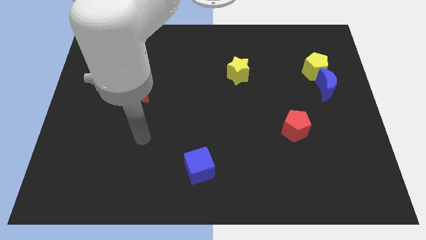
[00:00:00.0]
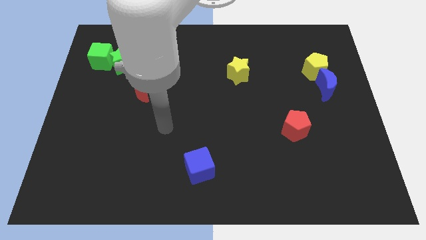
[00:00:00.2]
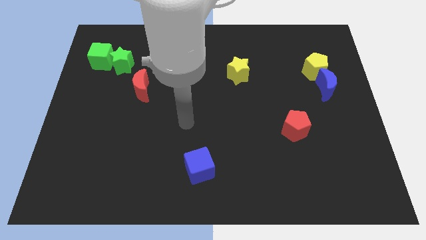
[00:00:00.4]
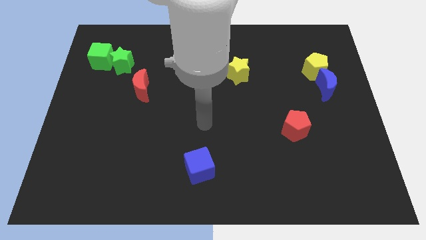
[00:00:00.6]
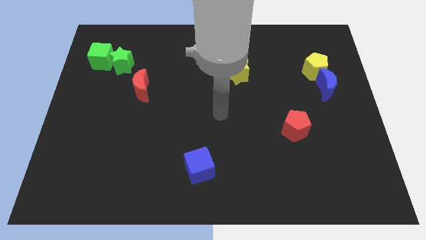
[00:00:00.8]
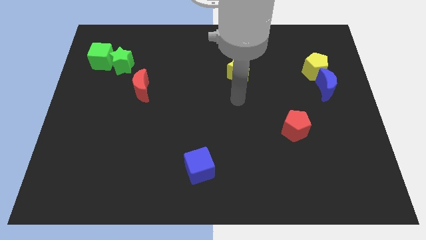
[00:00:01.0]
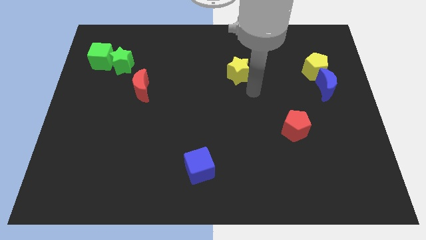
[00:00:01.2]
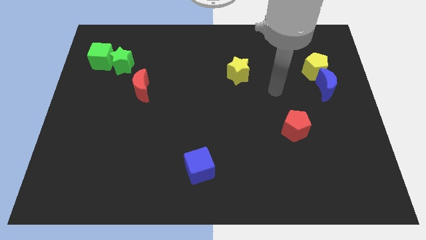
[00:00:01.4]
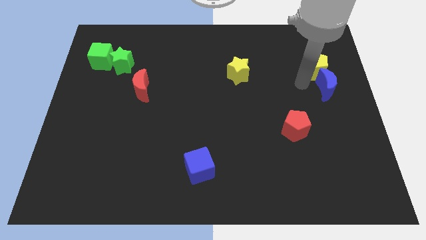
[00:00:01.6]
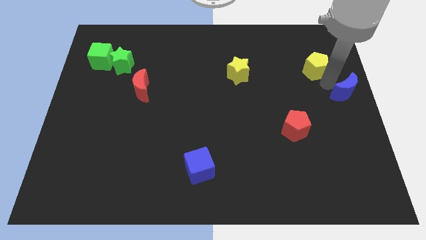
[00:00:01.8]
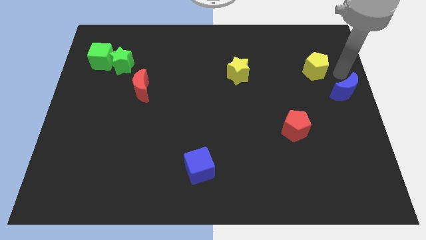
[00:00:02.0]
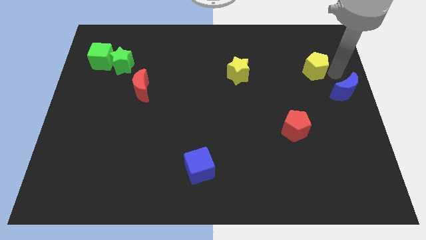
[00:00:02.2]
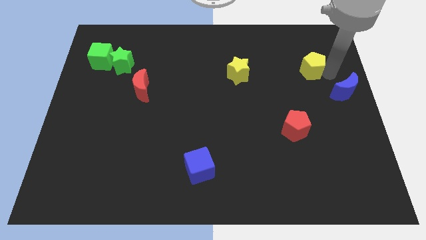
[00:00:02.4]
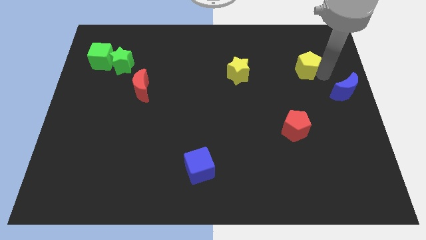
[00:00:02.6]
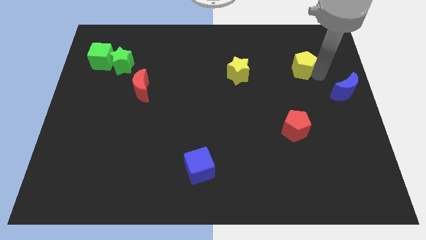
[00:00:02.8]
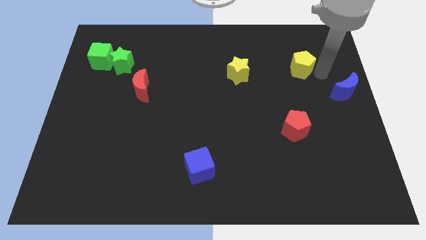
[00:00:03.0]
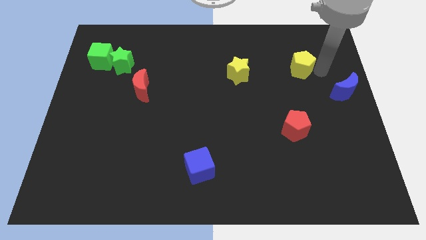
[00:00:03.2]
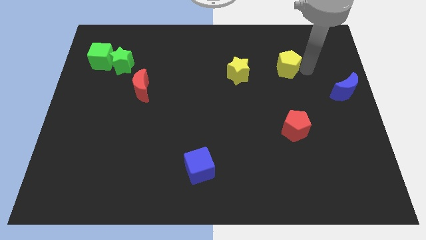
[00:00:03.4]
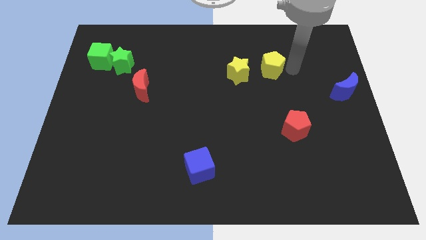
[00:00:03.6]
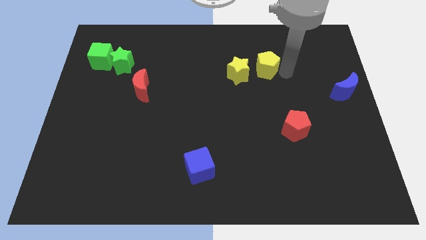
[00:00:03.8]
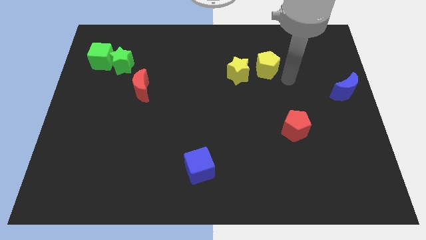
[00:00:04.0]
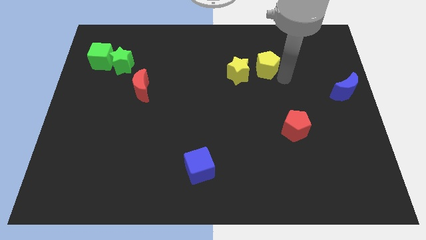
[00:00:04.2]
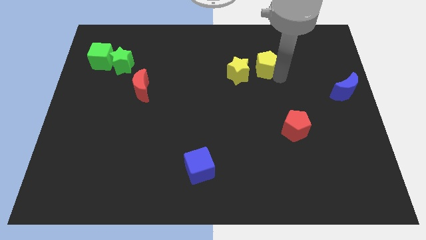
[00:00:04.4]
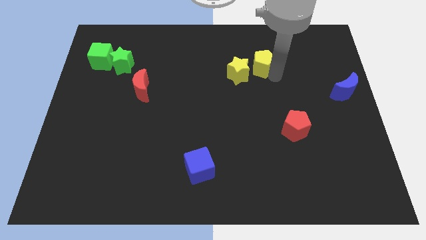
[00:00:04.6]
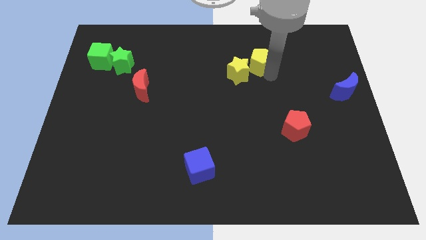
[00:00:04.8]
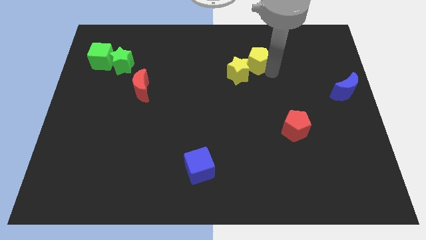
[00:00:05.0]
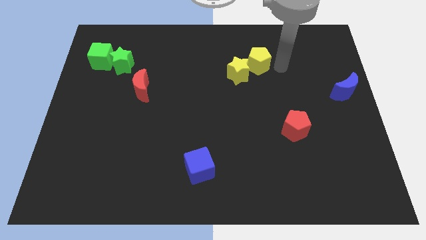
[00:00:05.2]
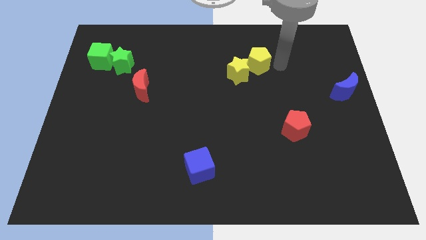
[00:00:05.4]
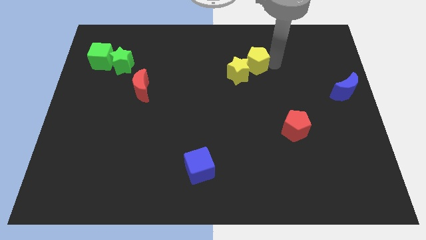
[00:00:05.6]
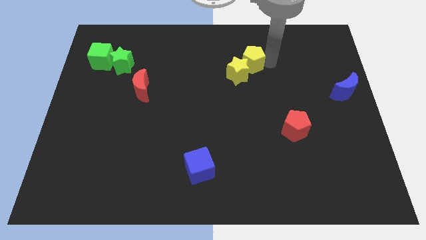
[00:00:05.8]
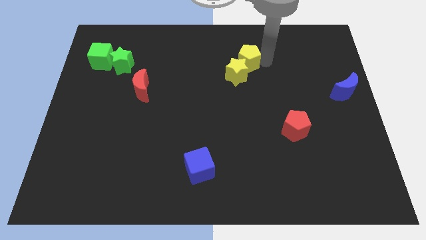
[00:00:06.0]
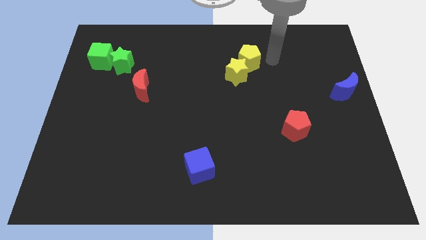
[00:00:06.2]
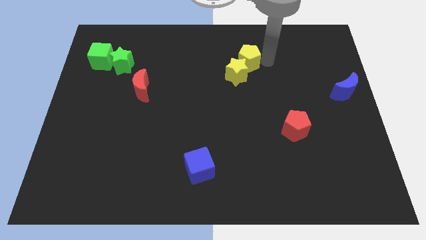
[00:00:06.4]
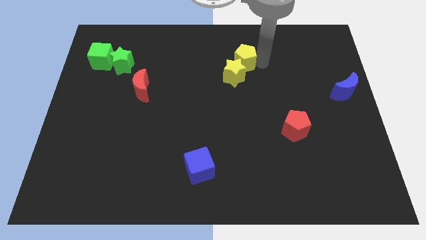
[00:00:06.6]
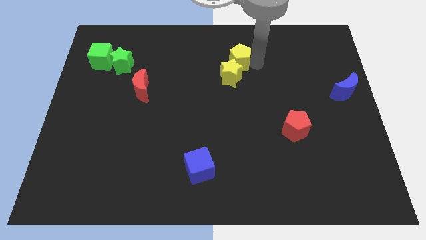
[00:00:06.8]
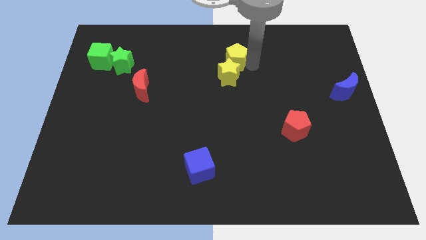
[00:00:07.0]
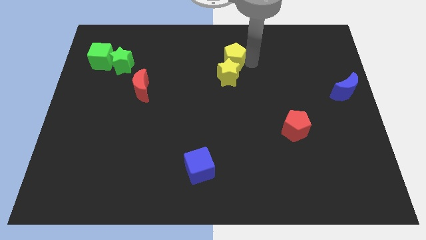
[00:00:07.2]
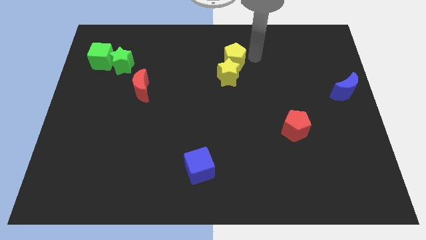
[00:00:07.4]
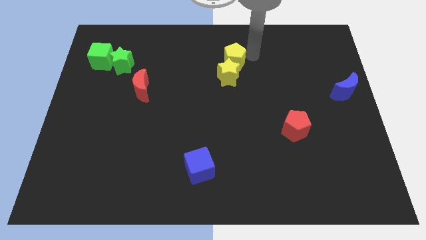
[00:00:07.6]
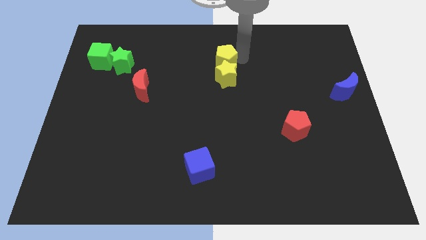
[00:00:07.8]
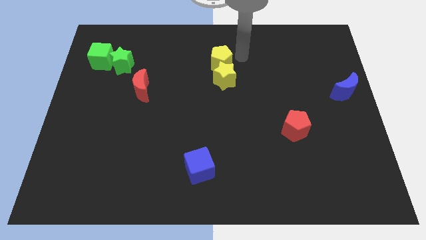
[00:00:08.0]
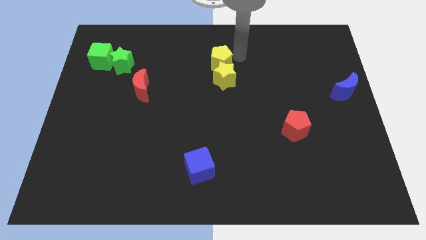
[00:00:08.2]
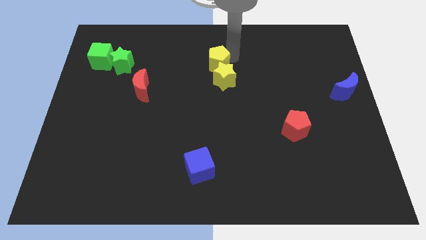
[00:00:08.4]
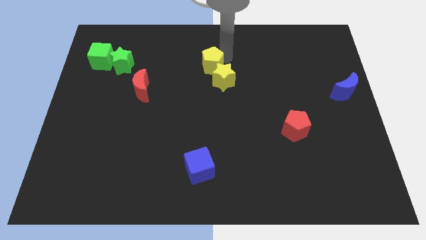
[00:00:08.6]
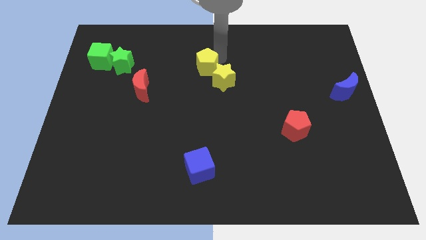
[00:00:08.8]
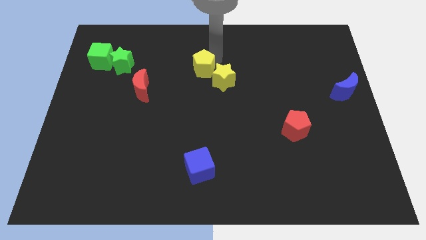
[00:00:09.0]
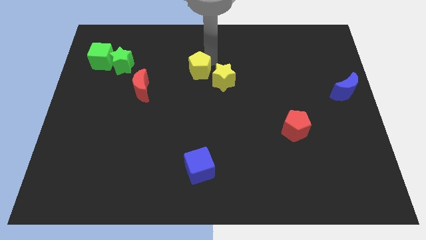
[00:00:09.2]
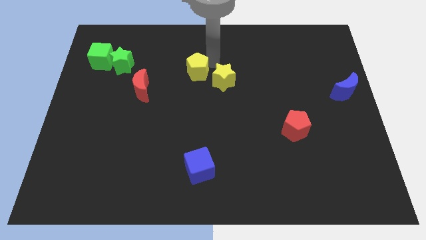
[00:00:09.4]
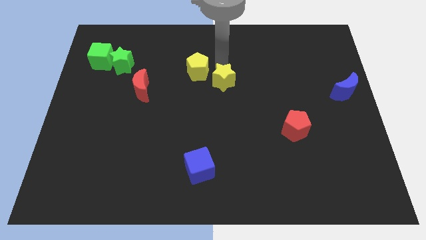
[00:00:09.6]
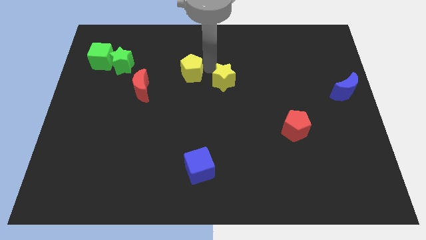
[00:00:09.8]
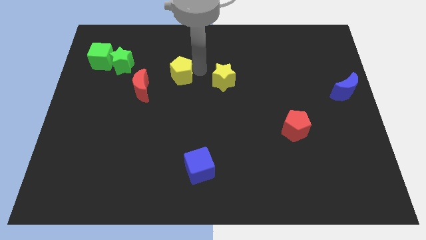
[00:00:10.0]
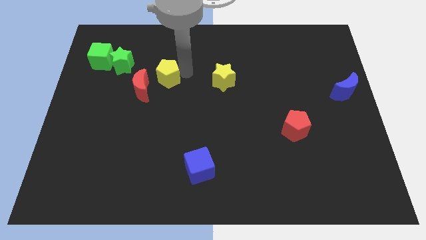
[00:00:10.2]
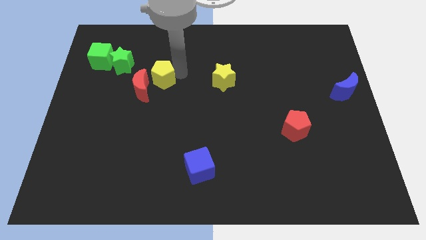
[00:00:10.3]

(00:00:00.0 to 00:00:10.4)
move the yellow pentagon to the red moon

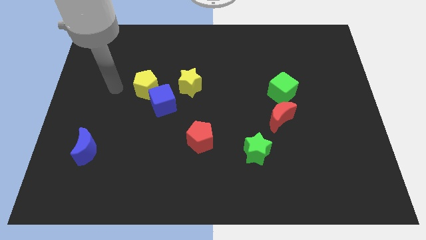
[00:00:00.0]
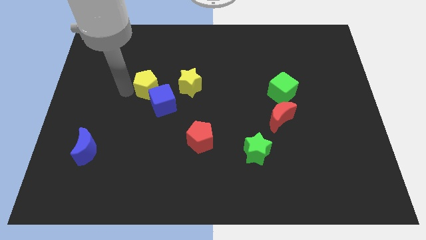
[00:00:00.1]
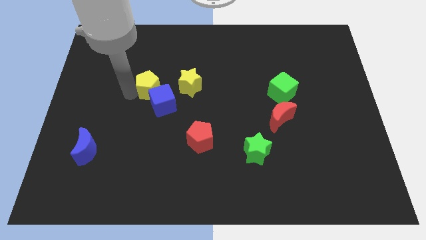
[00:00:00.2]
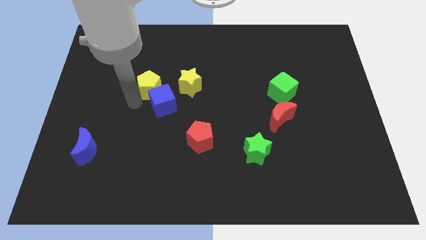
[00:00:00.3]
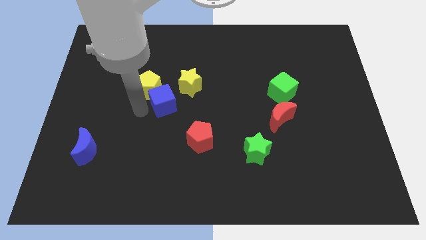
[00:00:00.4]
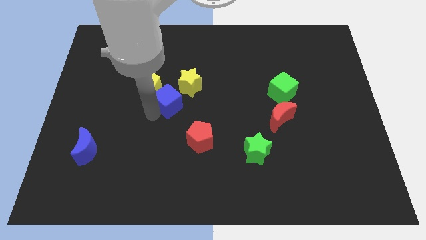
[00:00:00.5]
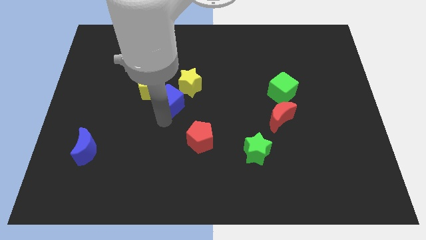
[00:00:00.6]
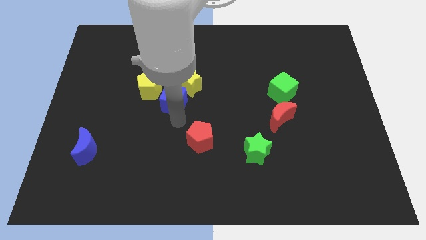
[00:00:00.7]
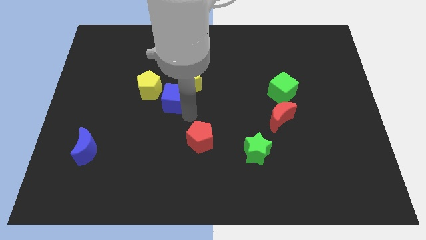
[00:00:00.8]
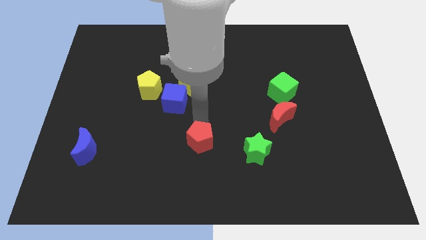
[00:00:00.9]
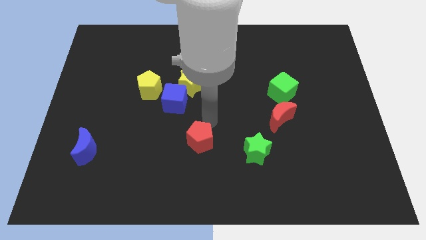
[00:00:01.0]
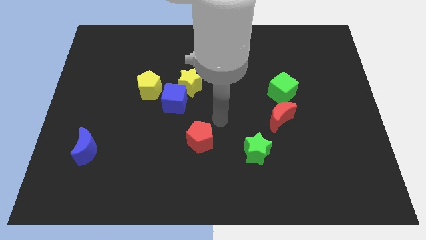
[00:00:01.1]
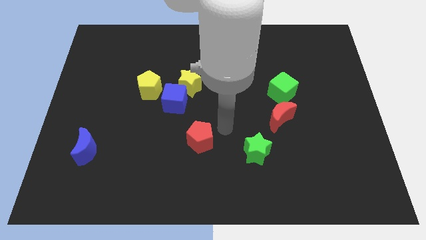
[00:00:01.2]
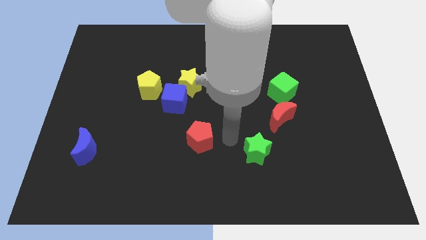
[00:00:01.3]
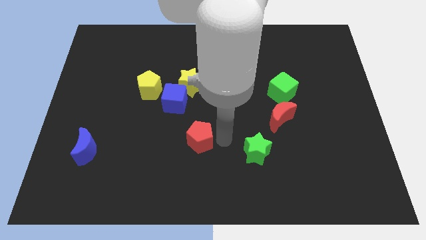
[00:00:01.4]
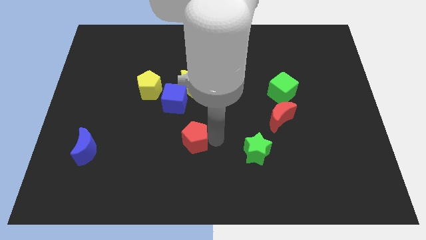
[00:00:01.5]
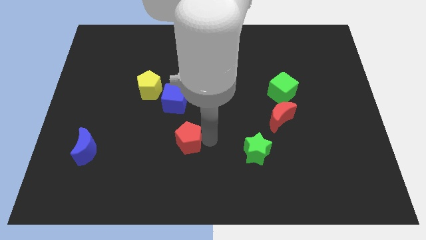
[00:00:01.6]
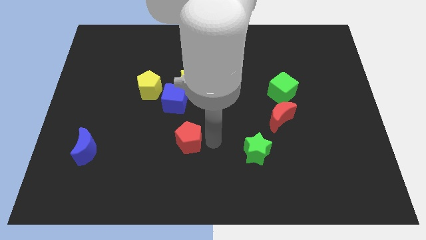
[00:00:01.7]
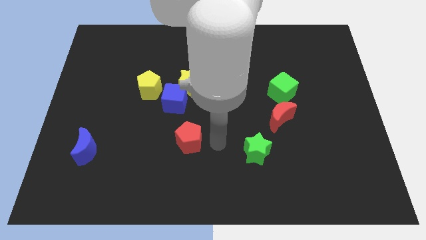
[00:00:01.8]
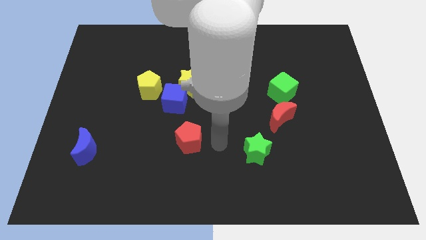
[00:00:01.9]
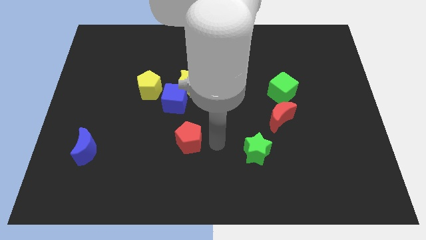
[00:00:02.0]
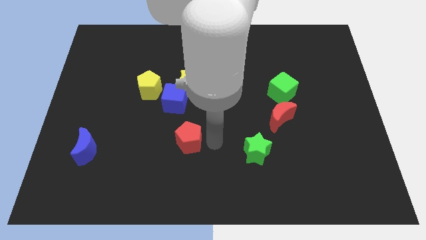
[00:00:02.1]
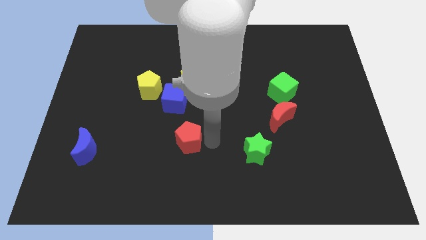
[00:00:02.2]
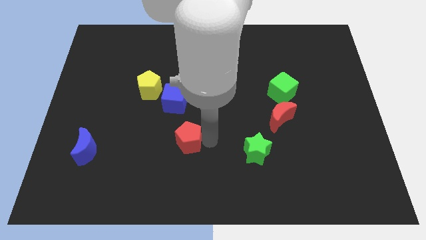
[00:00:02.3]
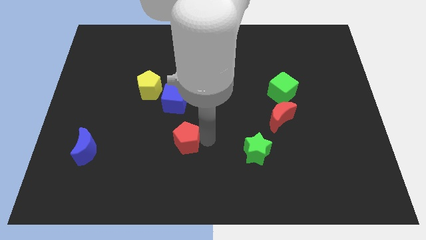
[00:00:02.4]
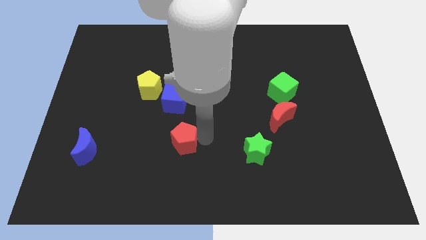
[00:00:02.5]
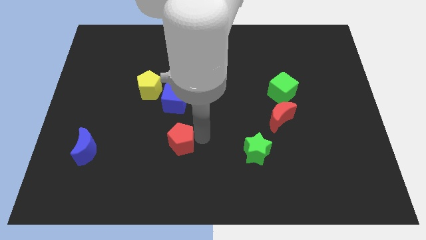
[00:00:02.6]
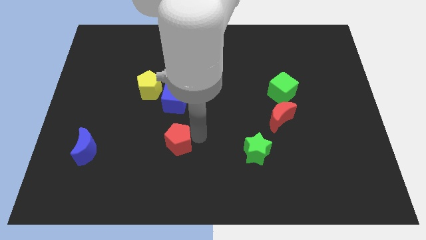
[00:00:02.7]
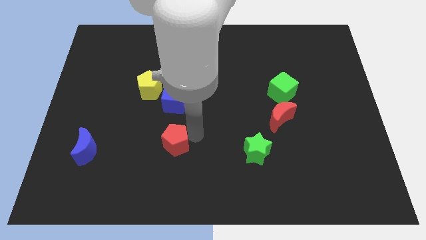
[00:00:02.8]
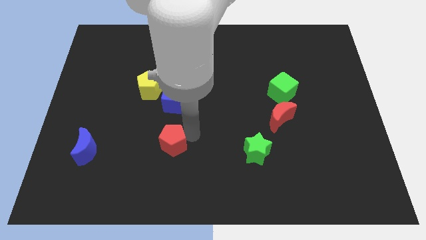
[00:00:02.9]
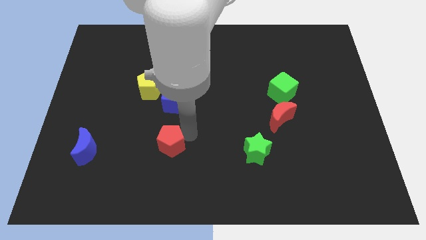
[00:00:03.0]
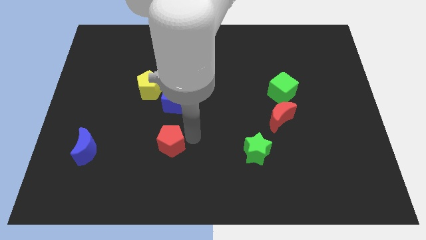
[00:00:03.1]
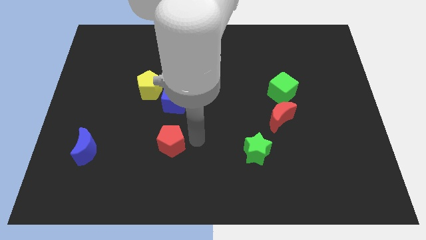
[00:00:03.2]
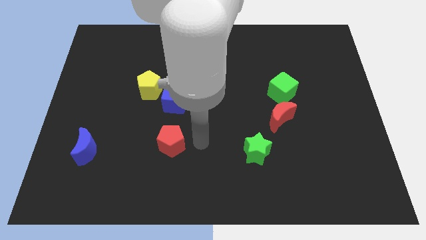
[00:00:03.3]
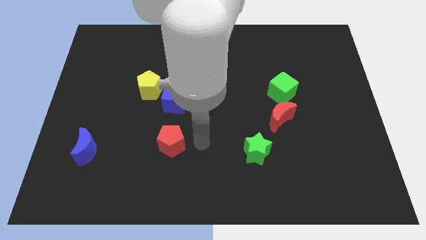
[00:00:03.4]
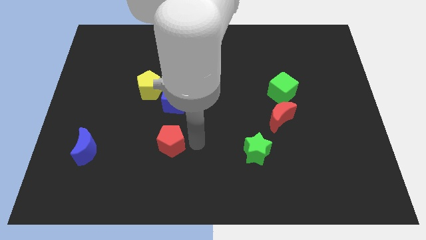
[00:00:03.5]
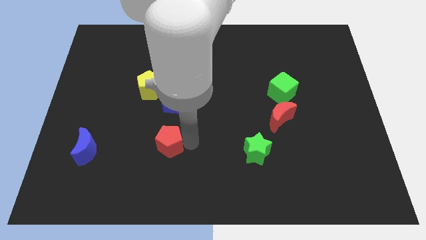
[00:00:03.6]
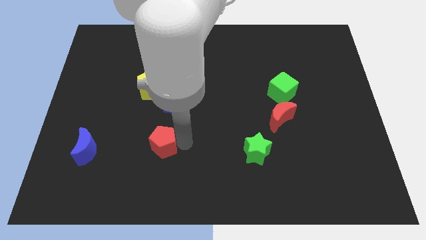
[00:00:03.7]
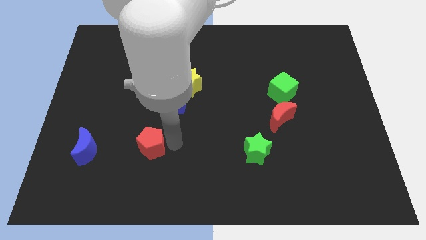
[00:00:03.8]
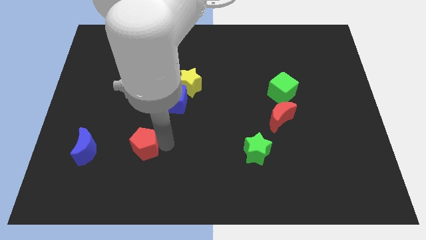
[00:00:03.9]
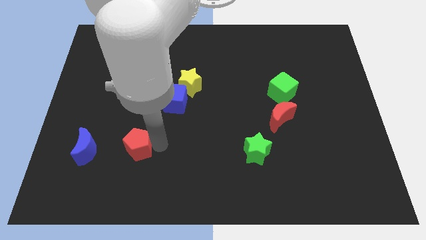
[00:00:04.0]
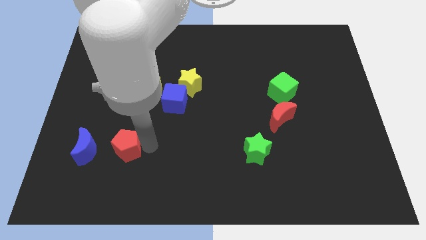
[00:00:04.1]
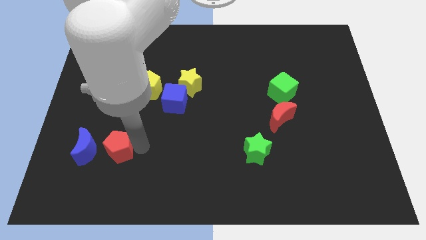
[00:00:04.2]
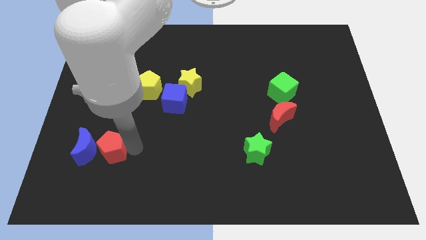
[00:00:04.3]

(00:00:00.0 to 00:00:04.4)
push the red pentagon to the blue moon
